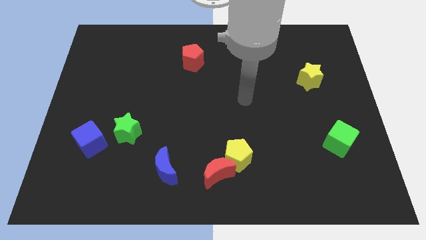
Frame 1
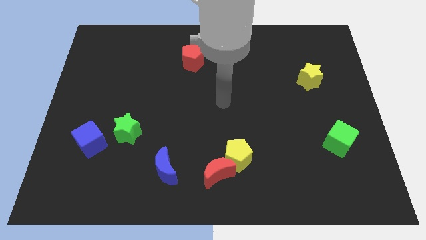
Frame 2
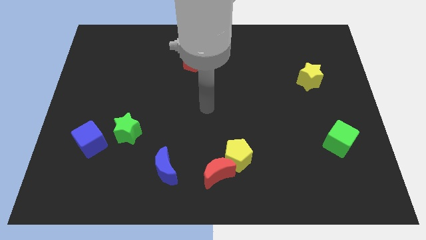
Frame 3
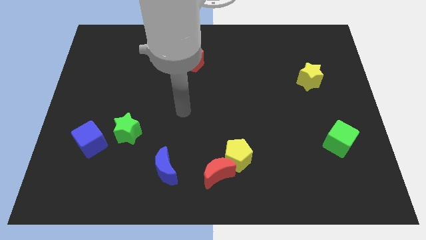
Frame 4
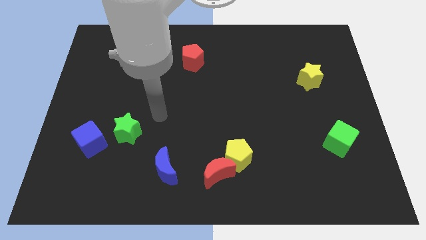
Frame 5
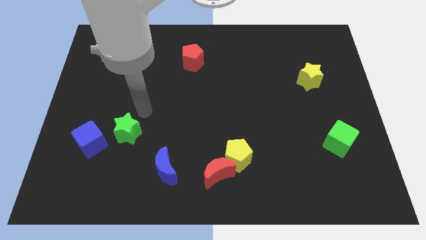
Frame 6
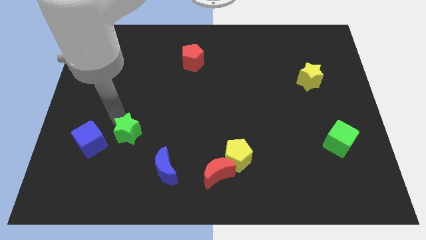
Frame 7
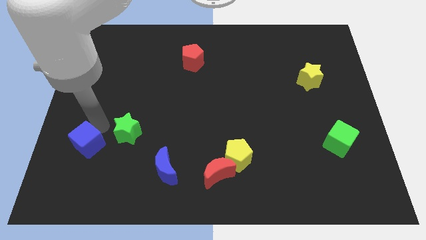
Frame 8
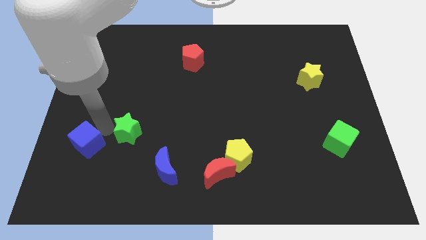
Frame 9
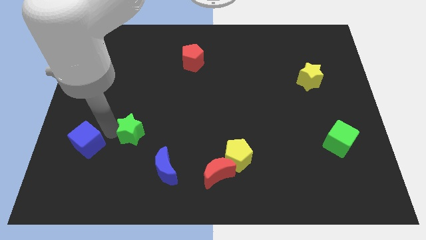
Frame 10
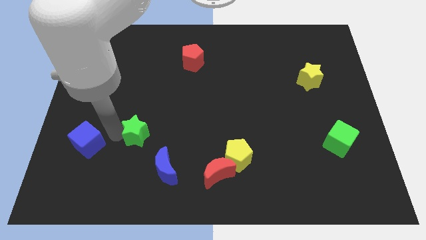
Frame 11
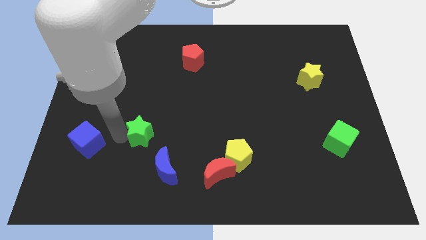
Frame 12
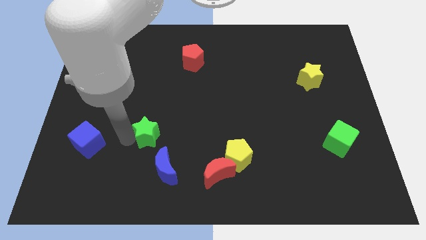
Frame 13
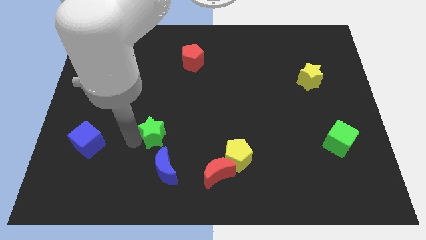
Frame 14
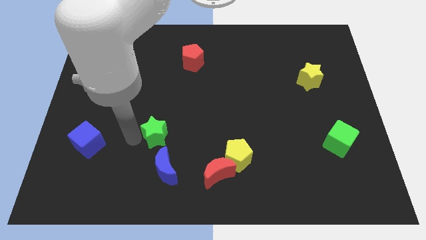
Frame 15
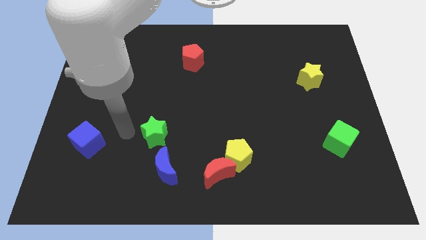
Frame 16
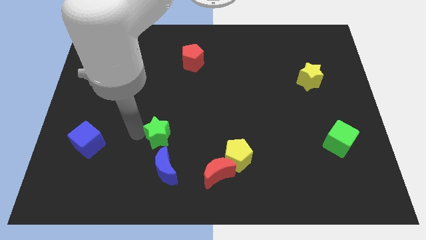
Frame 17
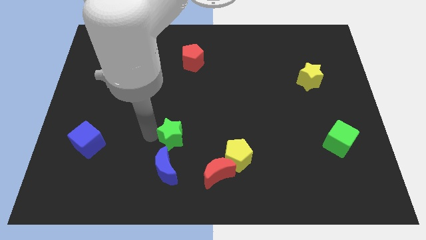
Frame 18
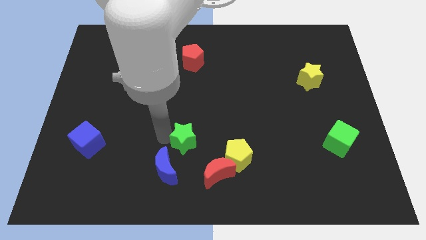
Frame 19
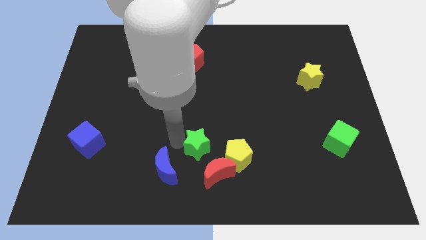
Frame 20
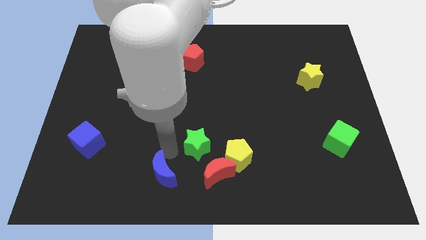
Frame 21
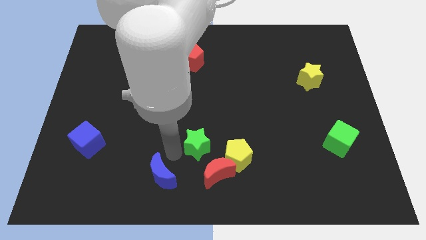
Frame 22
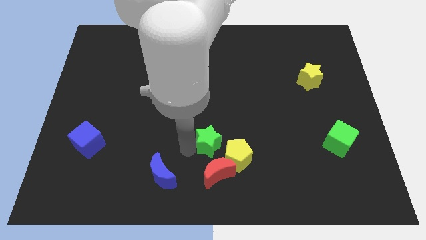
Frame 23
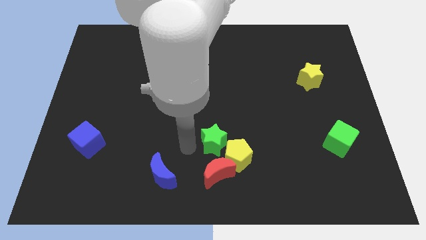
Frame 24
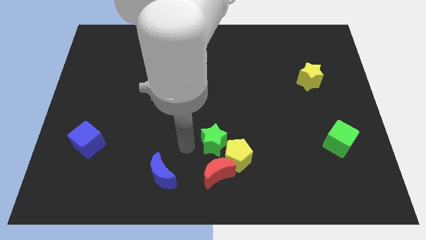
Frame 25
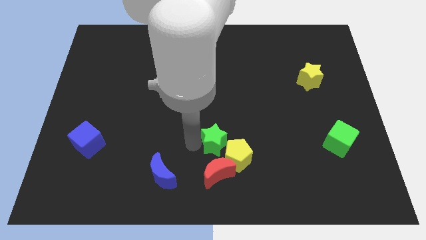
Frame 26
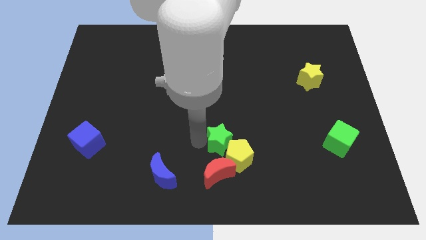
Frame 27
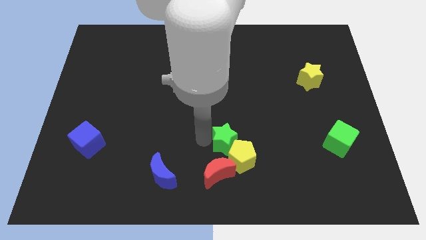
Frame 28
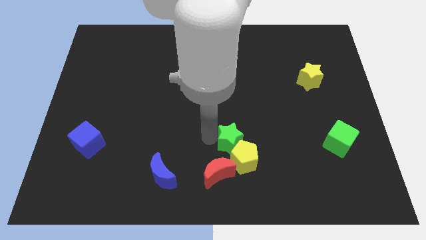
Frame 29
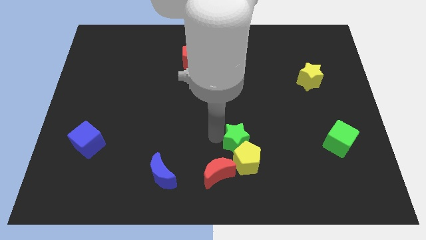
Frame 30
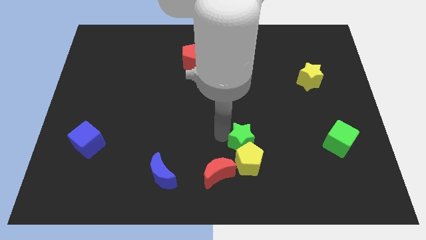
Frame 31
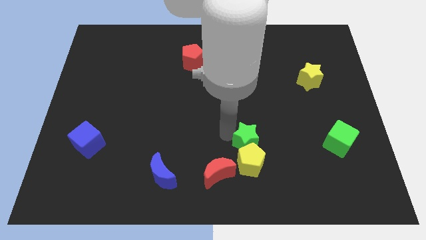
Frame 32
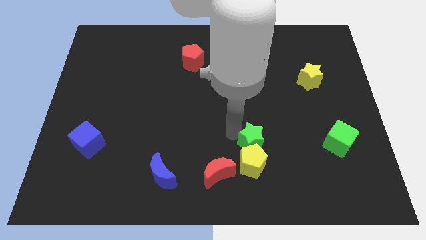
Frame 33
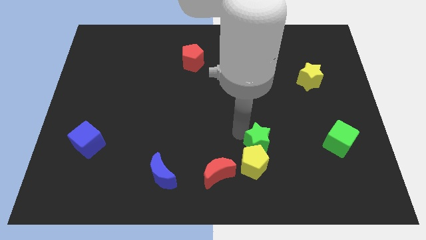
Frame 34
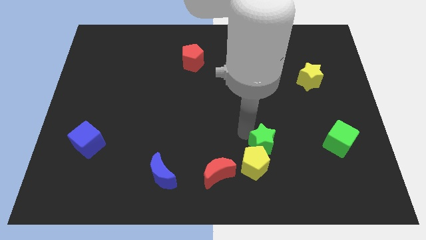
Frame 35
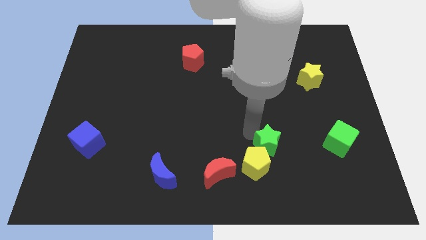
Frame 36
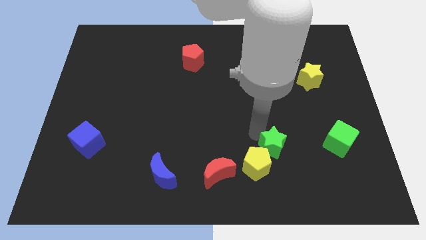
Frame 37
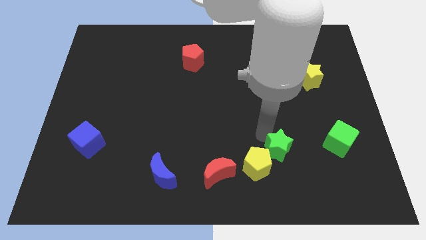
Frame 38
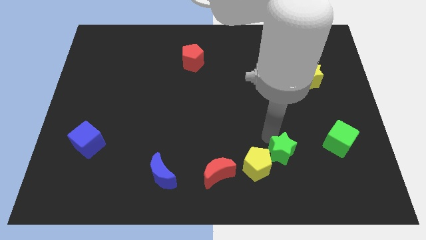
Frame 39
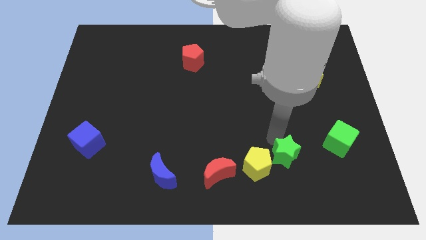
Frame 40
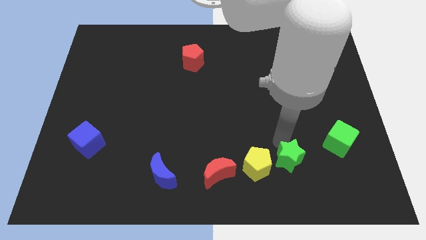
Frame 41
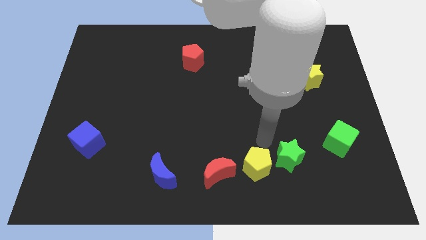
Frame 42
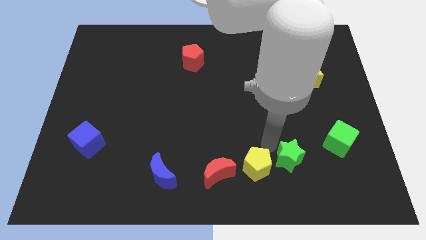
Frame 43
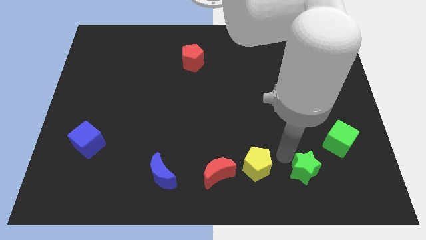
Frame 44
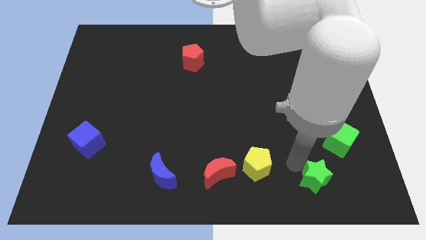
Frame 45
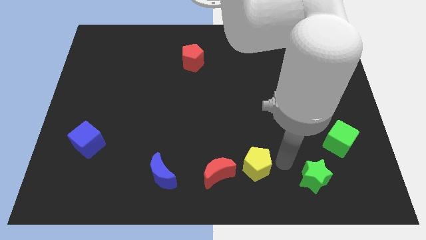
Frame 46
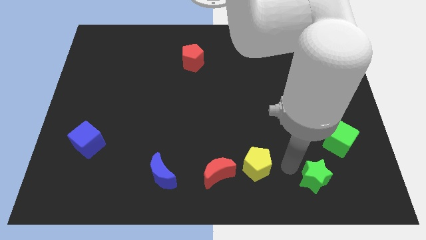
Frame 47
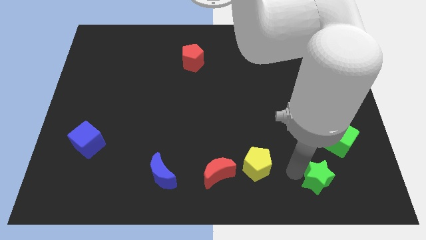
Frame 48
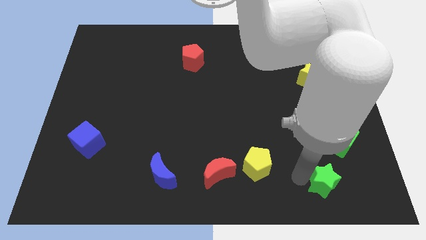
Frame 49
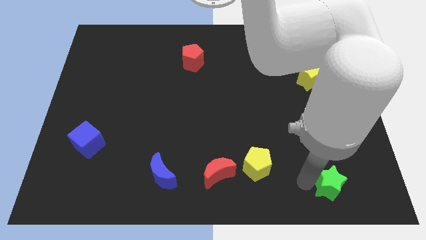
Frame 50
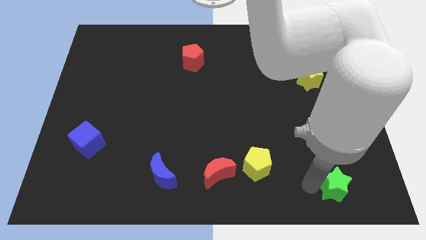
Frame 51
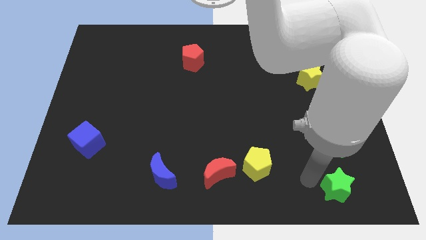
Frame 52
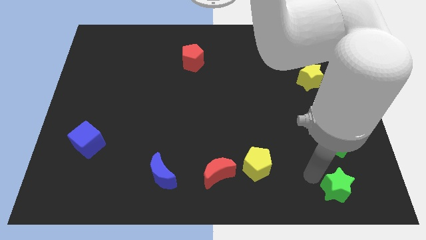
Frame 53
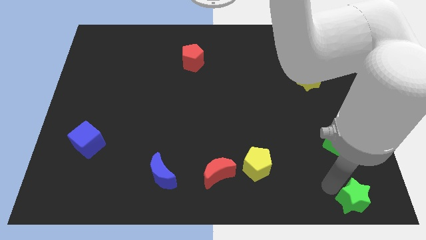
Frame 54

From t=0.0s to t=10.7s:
put the green star to the lower right corner

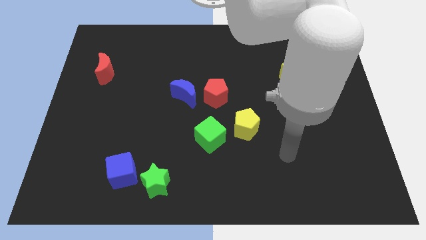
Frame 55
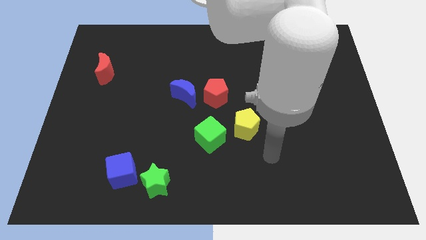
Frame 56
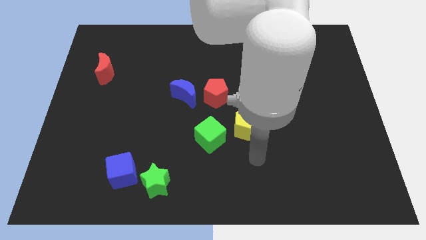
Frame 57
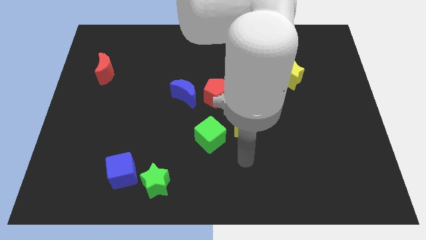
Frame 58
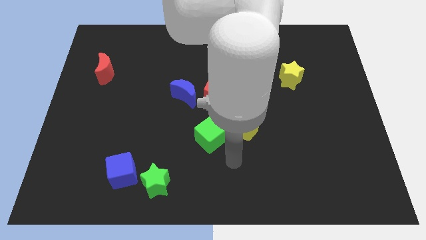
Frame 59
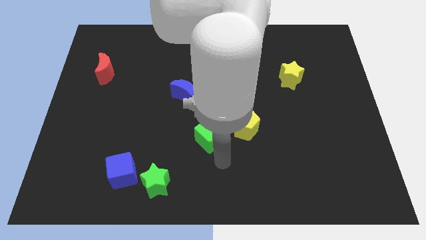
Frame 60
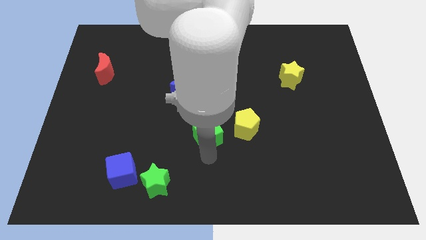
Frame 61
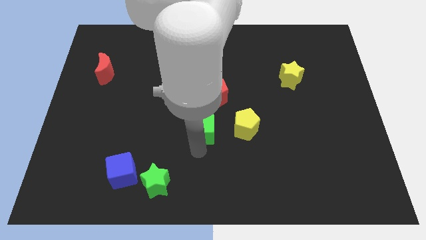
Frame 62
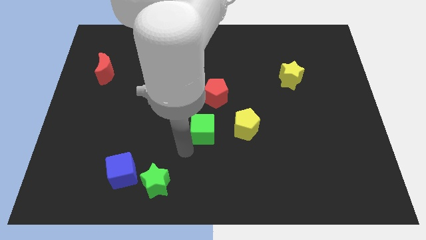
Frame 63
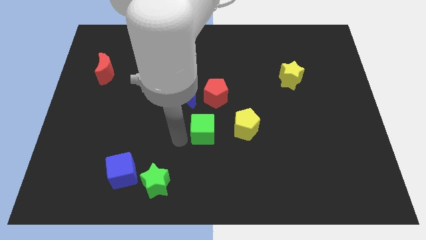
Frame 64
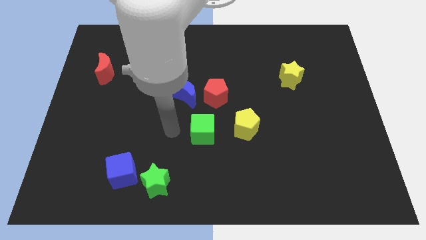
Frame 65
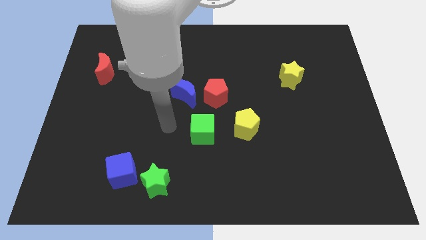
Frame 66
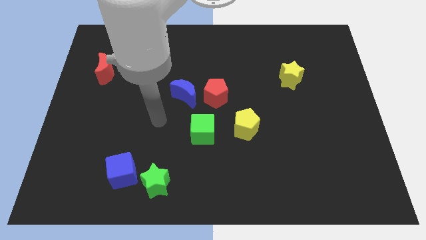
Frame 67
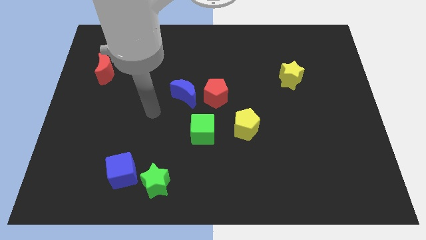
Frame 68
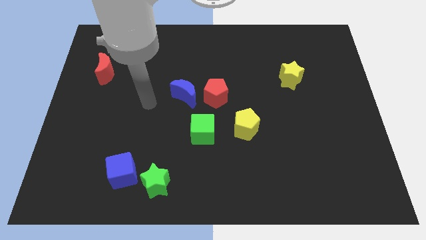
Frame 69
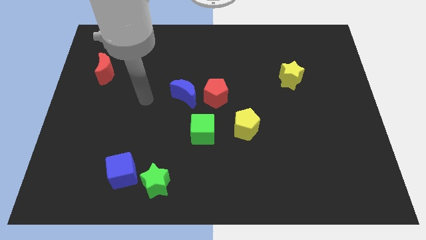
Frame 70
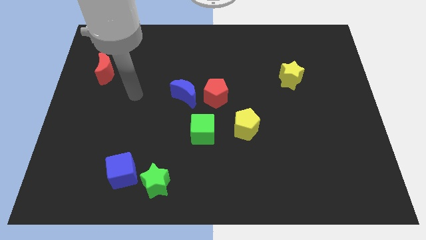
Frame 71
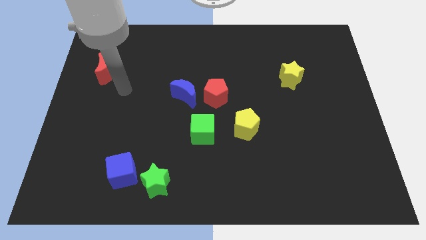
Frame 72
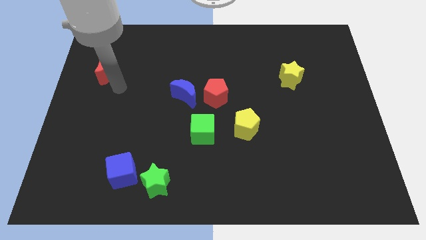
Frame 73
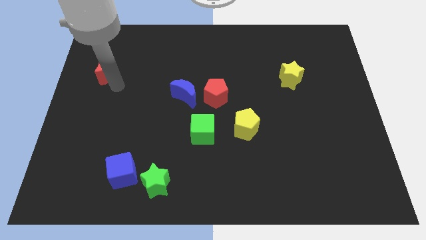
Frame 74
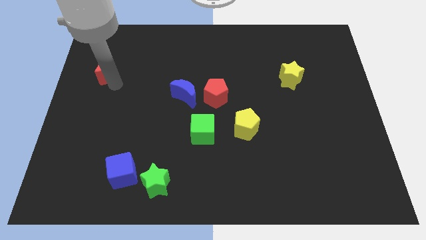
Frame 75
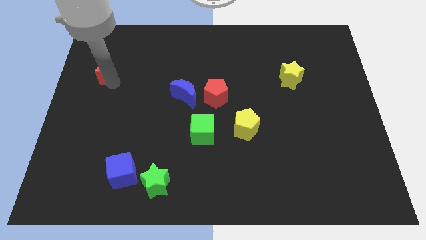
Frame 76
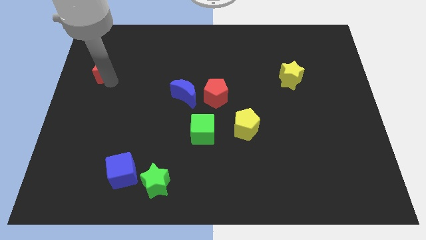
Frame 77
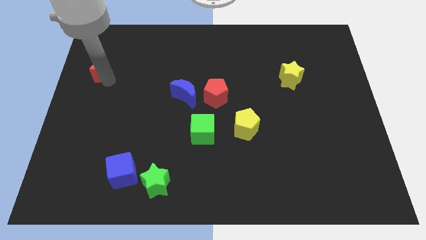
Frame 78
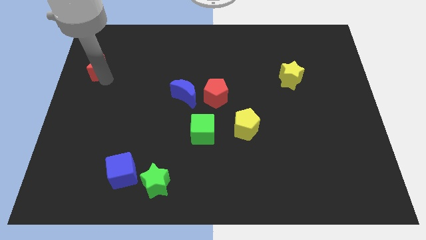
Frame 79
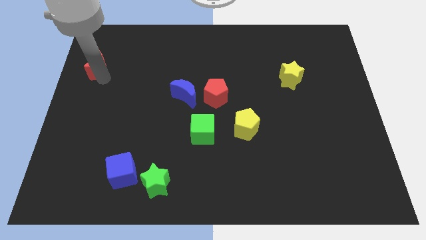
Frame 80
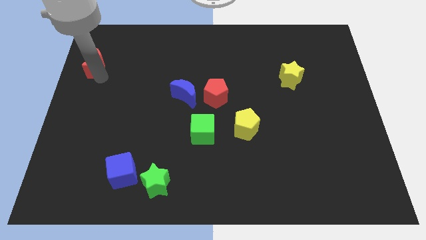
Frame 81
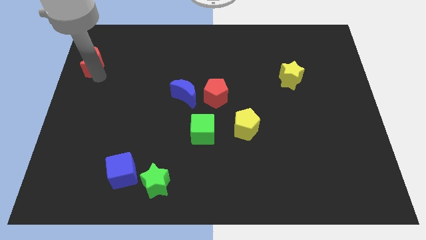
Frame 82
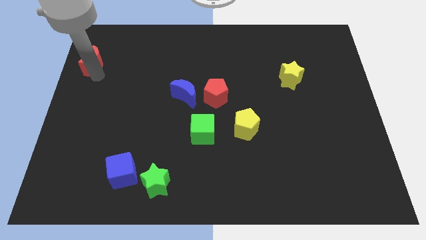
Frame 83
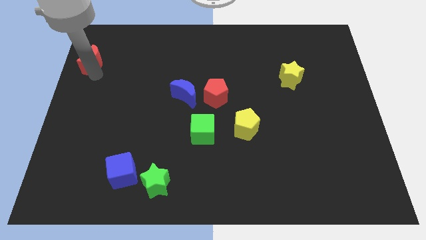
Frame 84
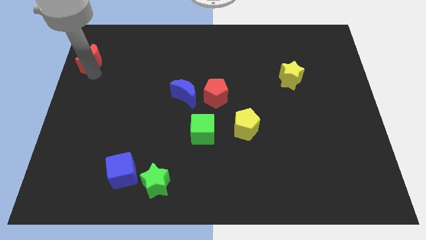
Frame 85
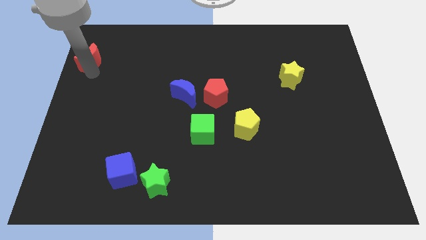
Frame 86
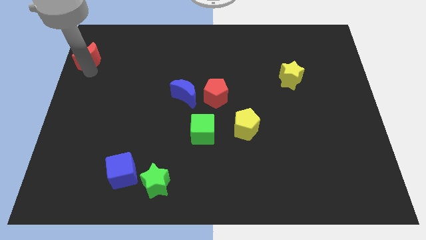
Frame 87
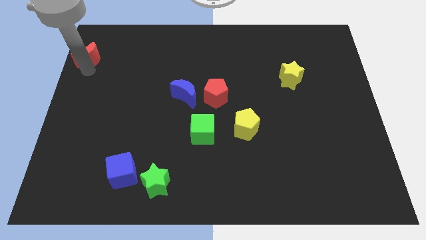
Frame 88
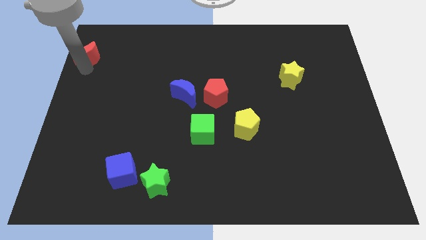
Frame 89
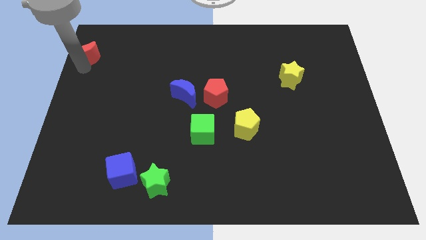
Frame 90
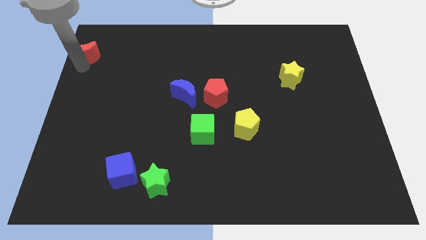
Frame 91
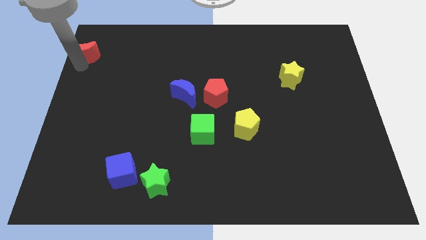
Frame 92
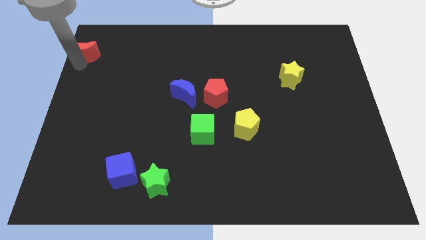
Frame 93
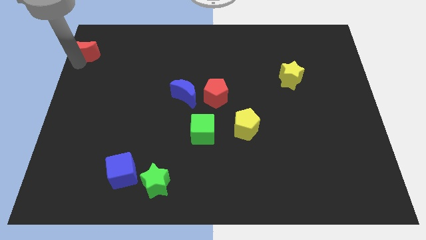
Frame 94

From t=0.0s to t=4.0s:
slide the red moon to the top left corner
